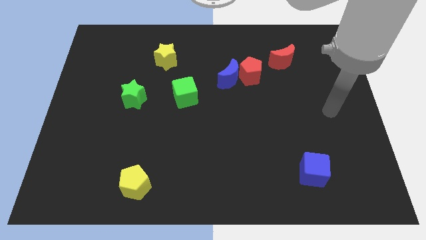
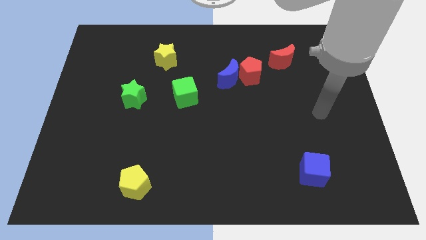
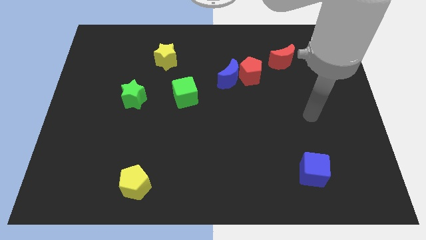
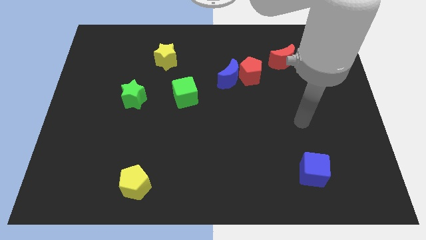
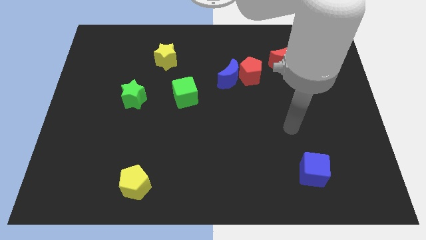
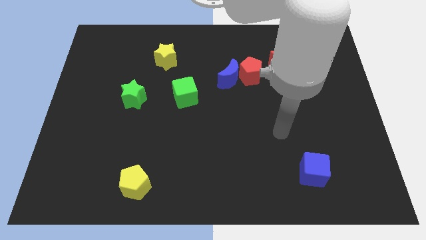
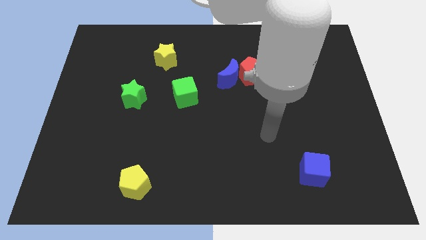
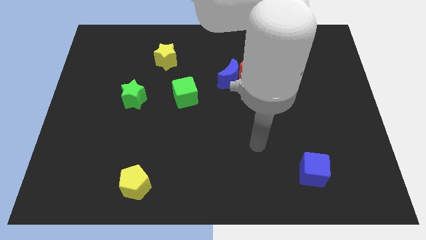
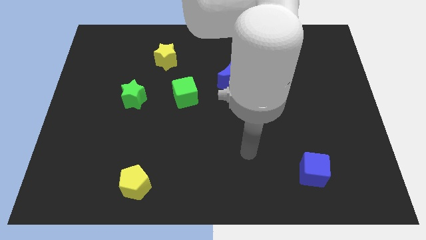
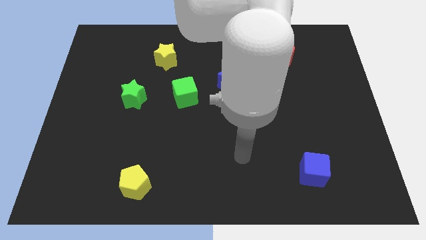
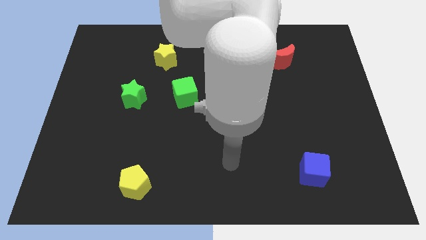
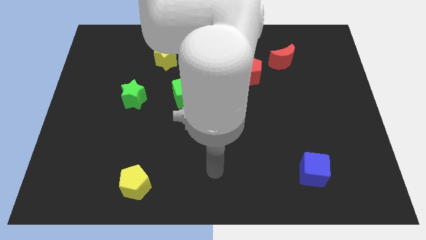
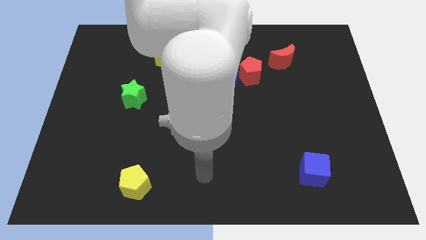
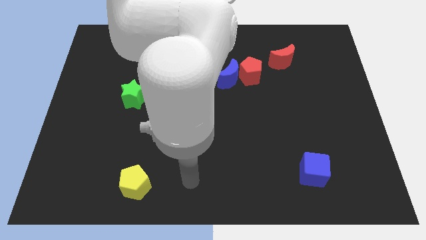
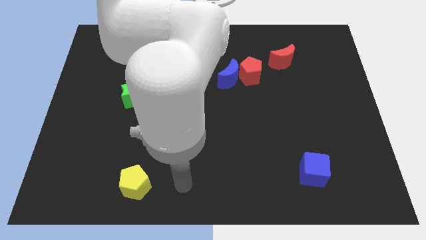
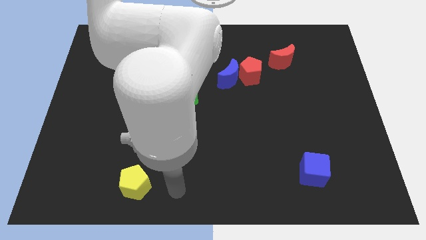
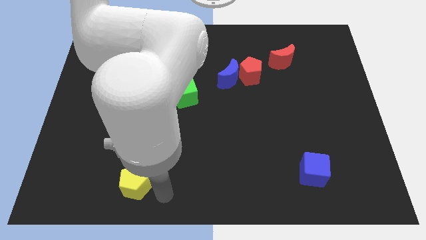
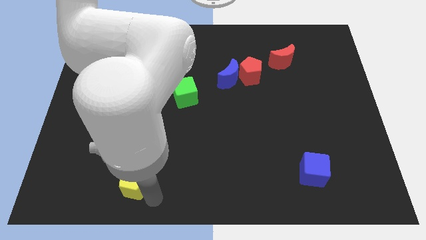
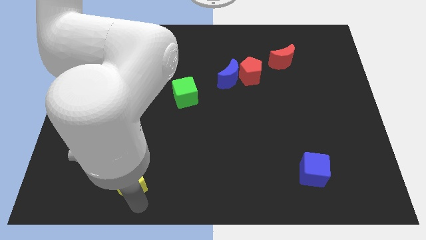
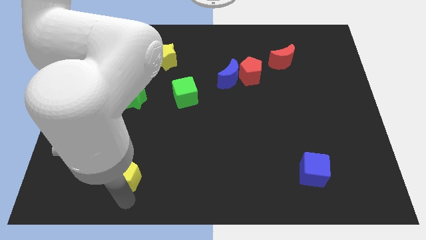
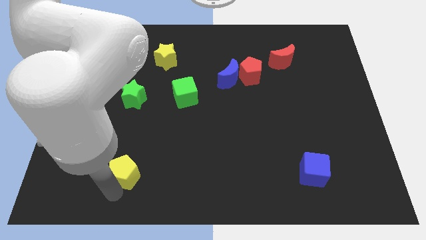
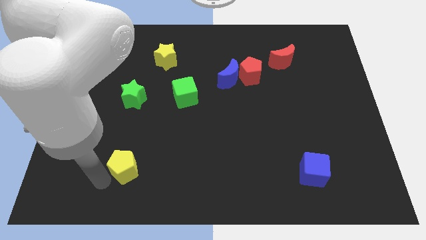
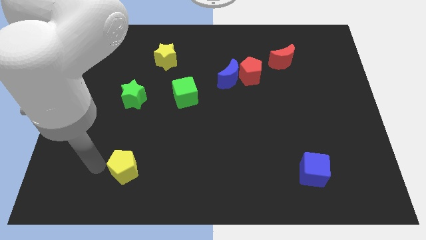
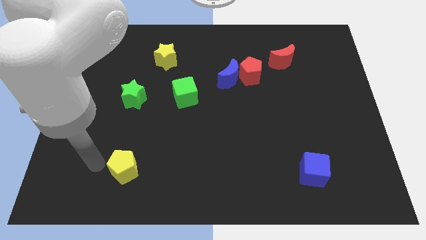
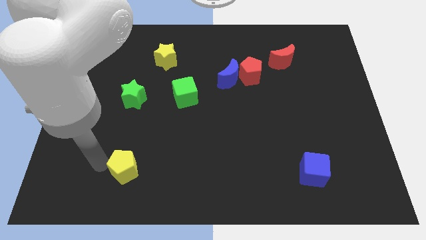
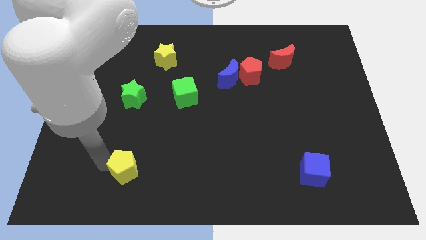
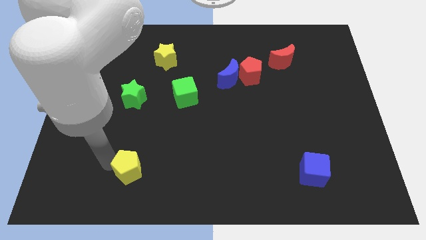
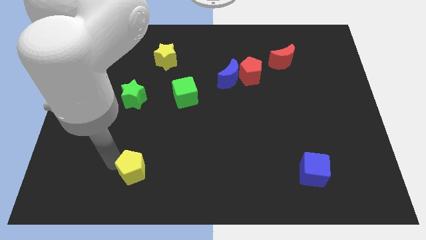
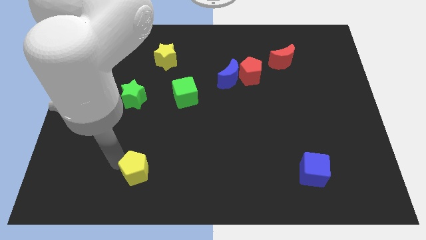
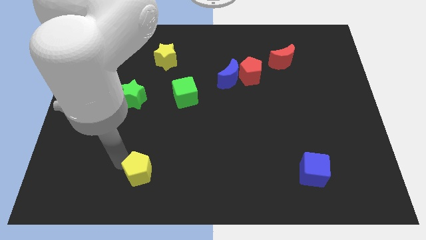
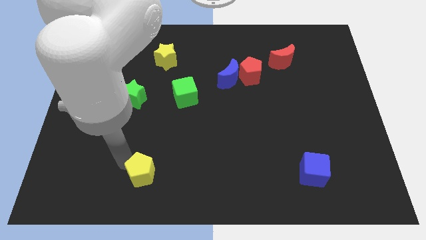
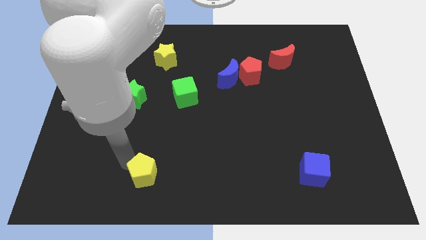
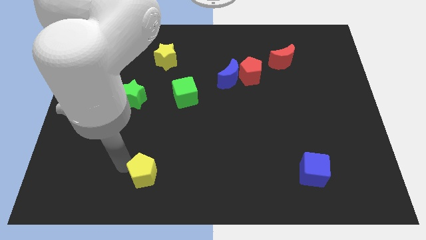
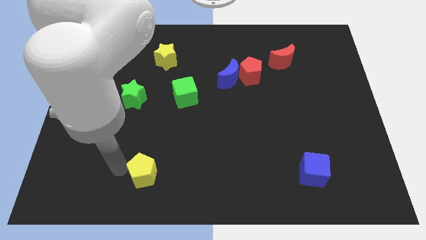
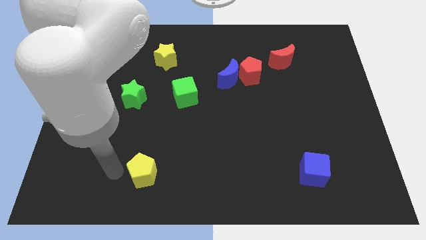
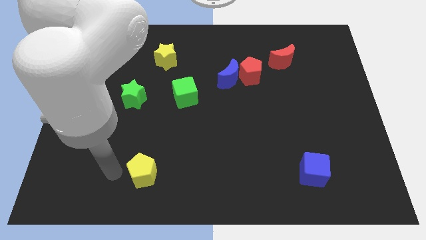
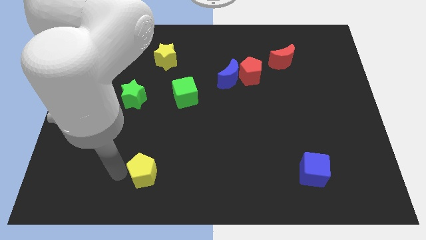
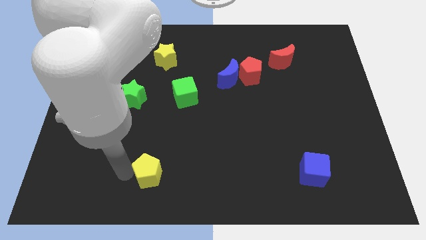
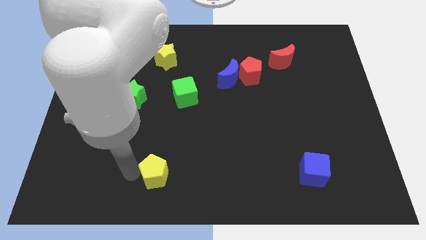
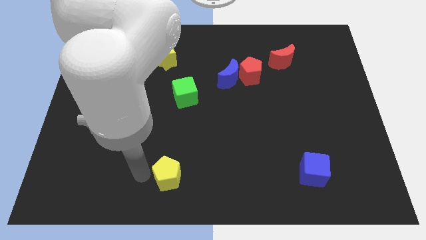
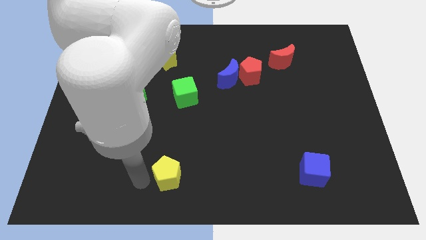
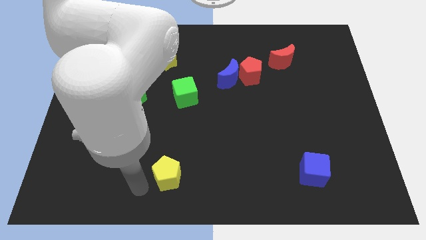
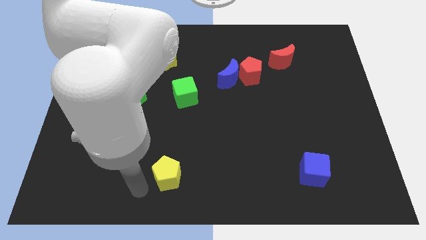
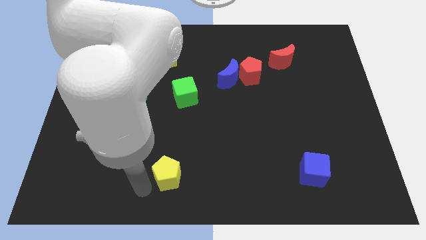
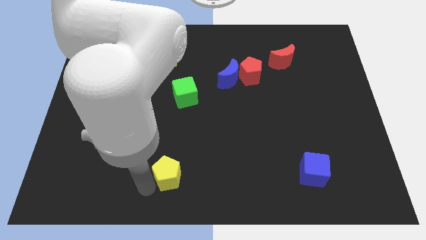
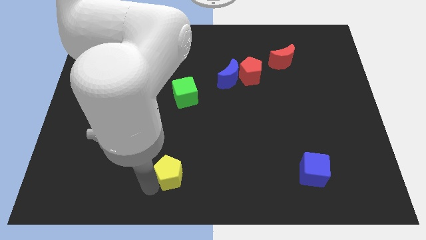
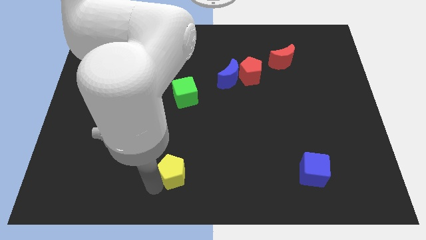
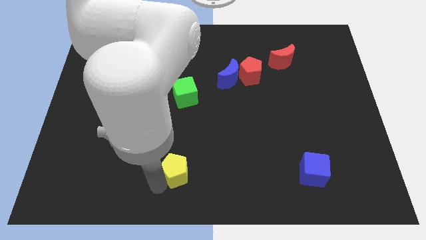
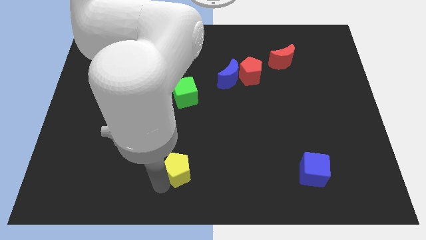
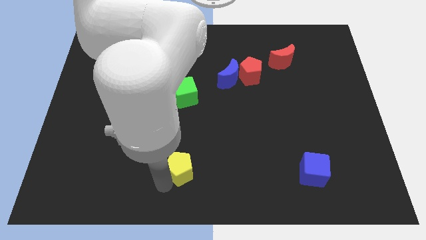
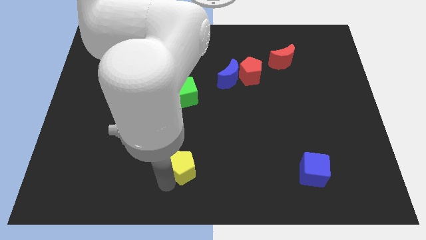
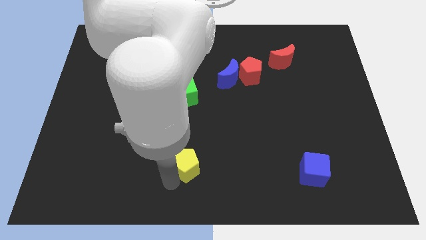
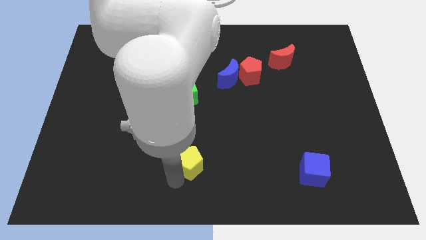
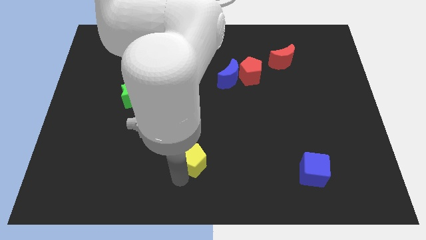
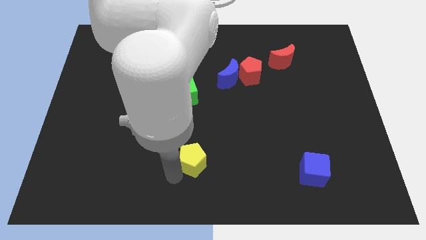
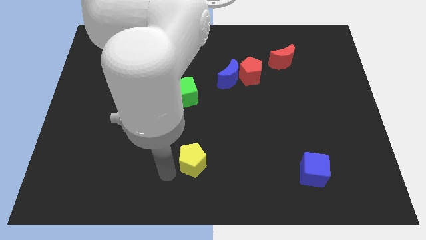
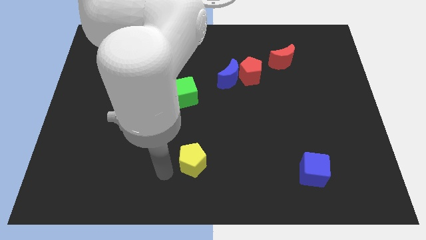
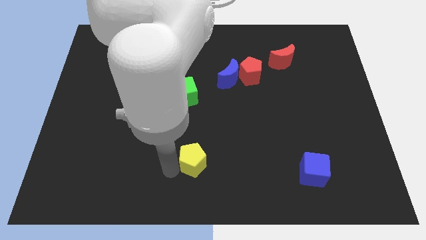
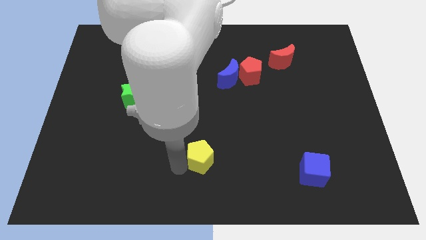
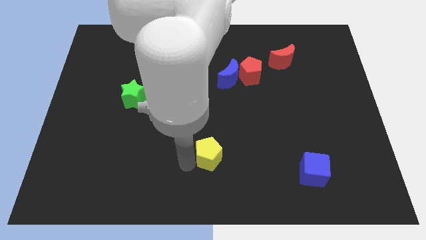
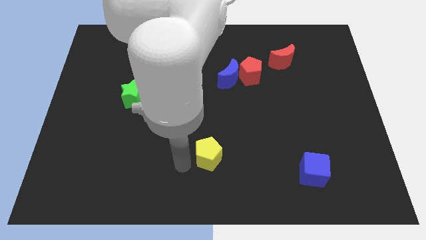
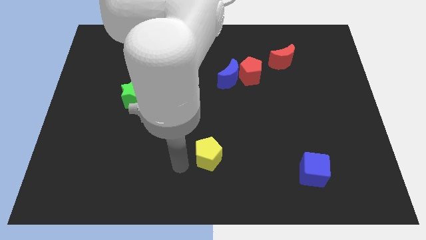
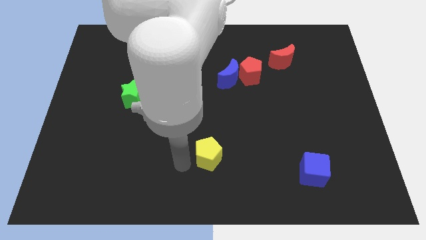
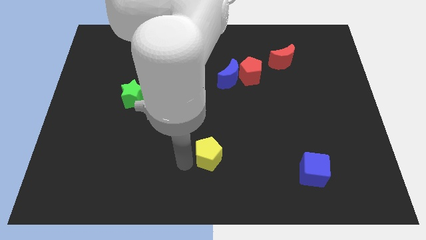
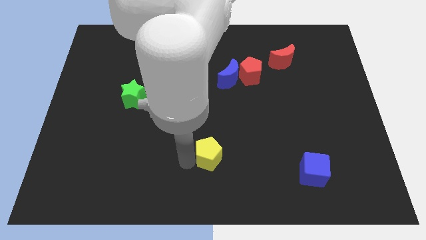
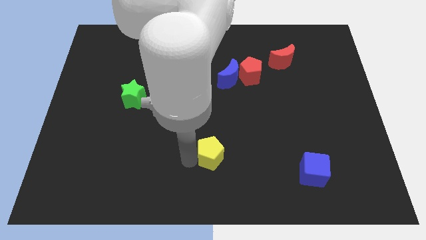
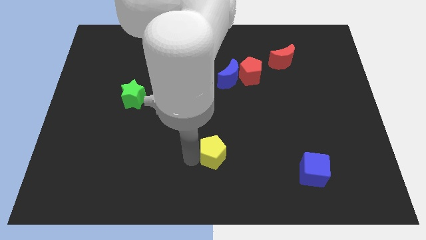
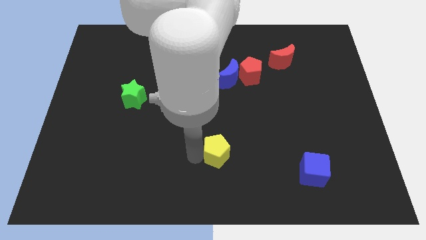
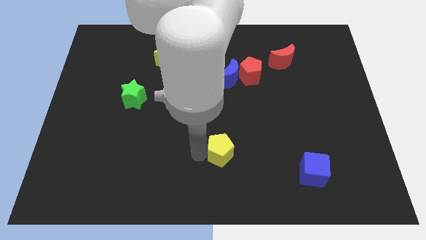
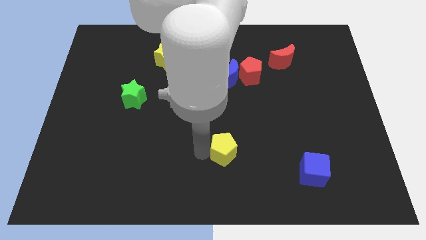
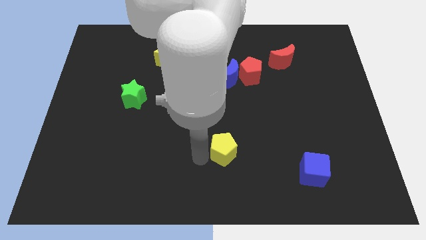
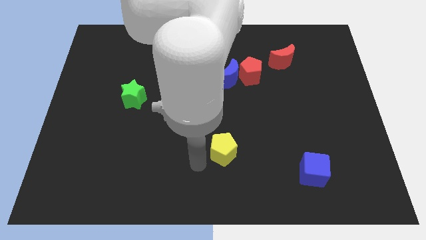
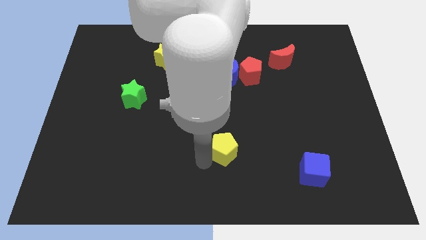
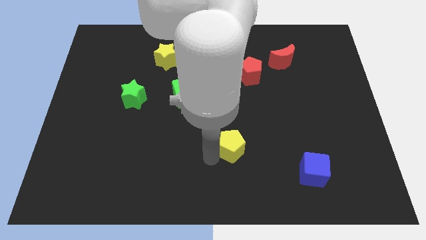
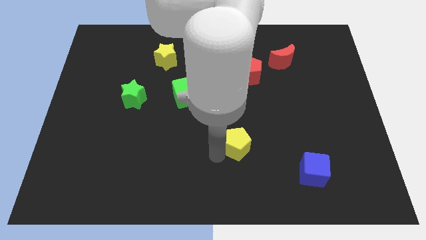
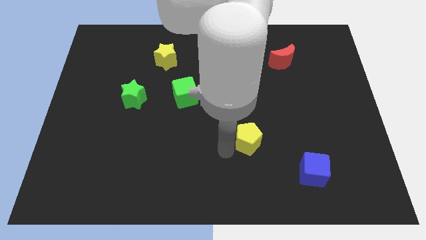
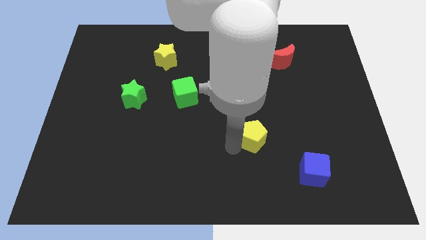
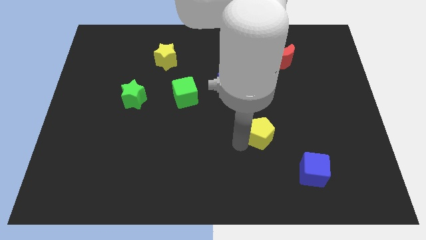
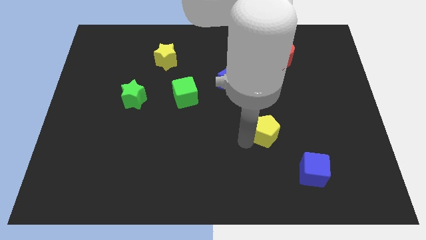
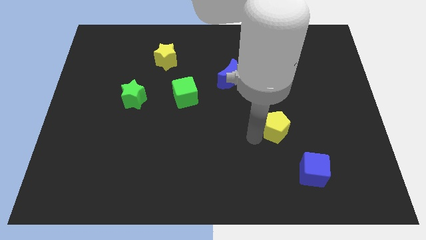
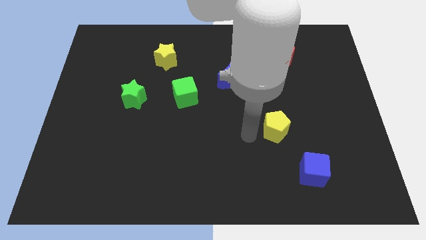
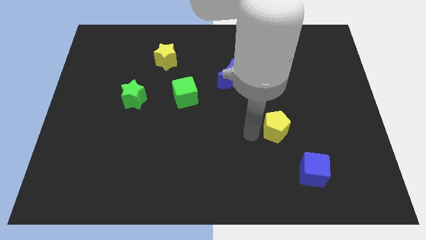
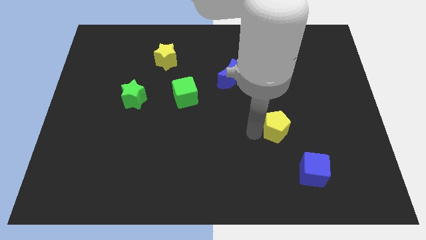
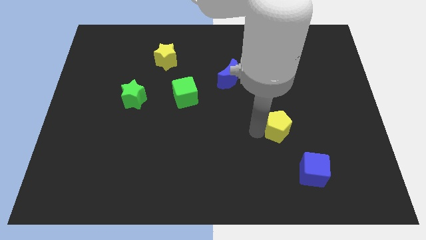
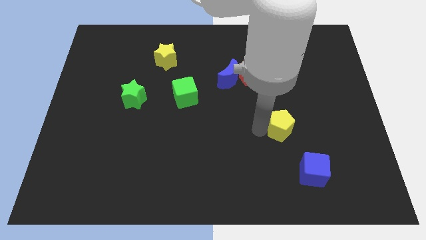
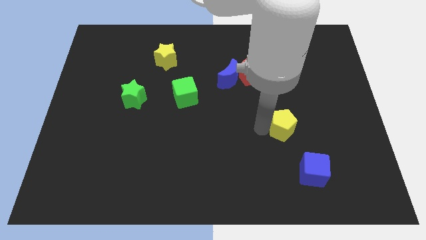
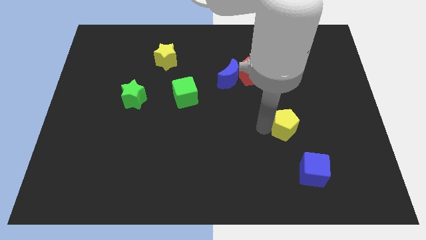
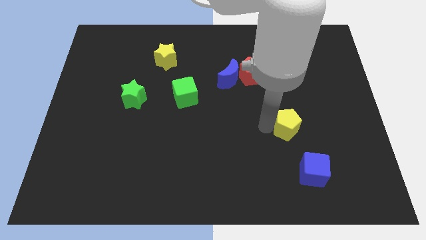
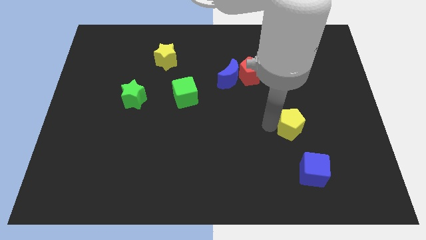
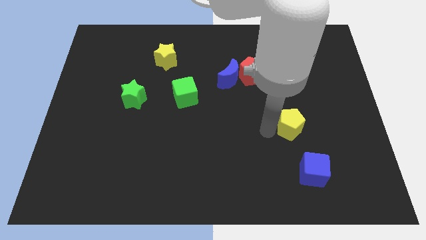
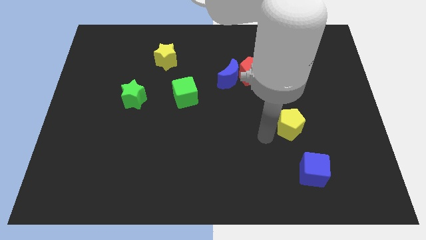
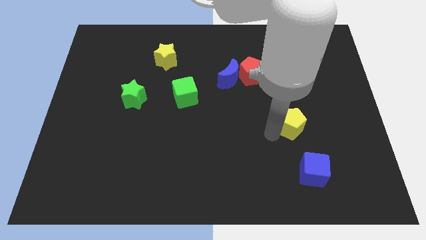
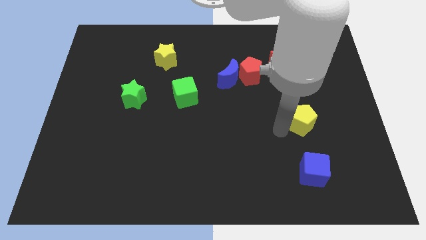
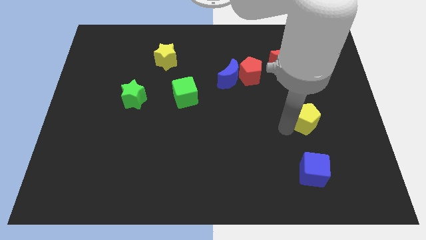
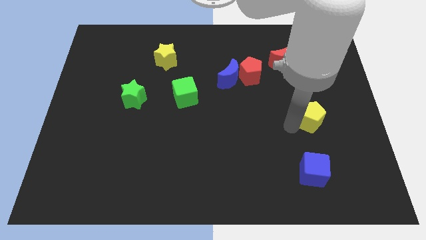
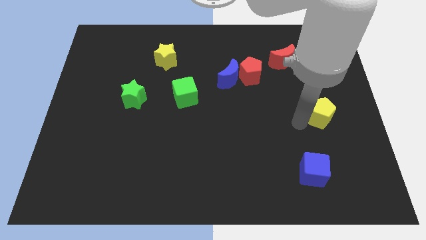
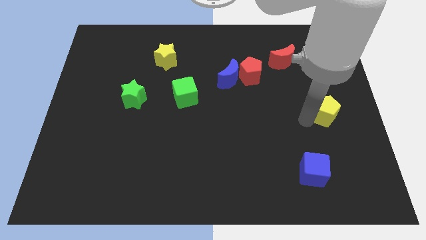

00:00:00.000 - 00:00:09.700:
move the yellow pentagon to the right side of the board
